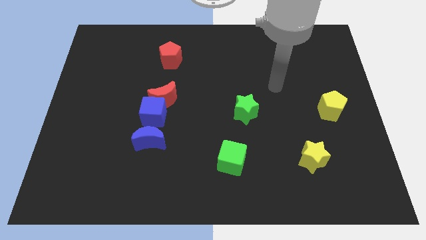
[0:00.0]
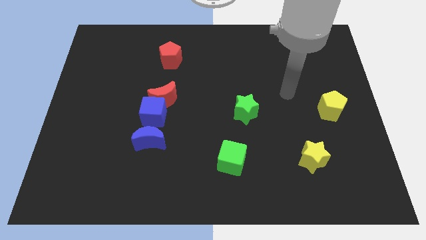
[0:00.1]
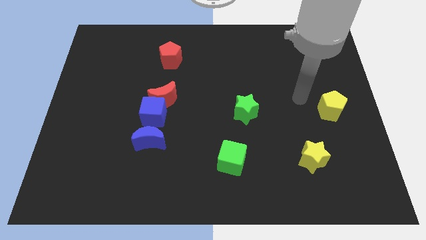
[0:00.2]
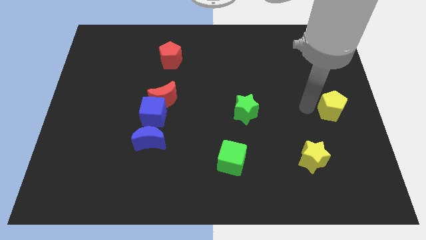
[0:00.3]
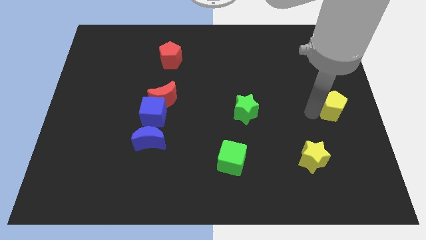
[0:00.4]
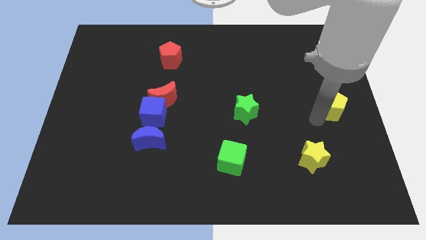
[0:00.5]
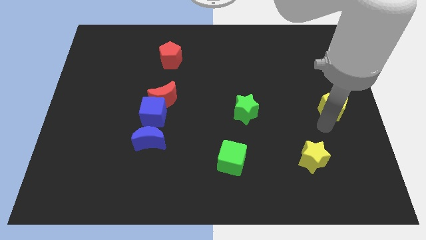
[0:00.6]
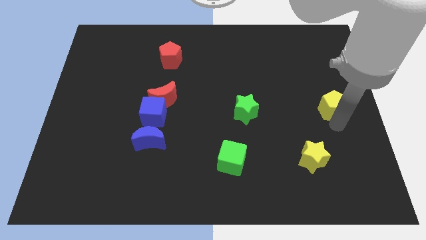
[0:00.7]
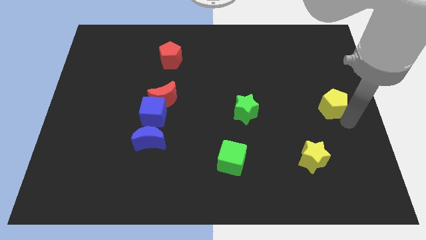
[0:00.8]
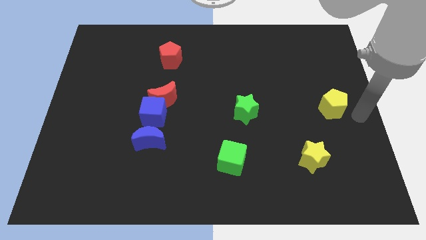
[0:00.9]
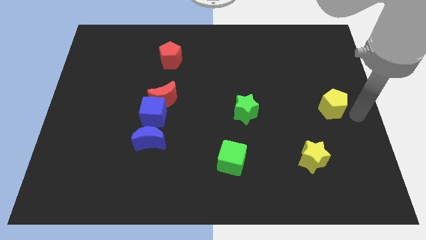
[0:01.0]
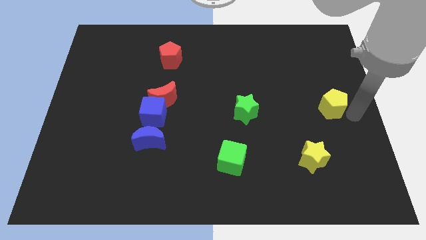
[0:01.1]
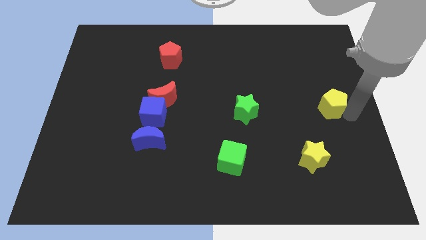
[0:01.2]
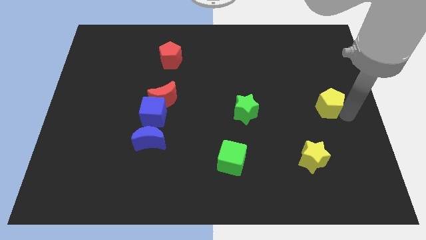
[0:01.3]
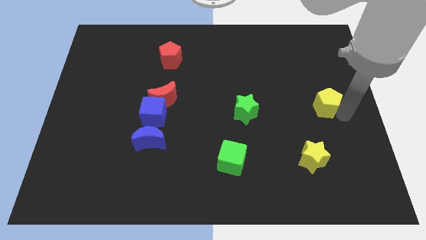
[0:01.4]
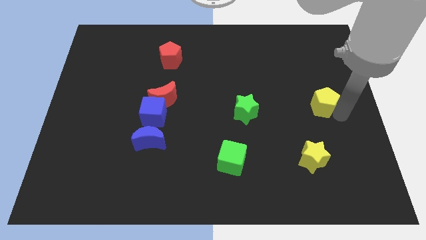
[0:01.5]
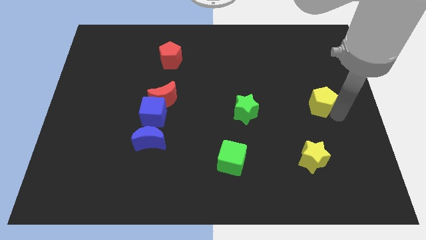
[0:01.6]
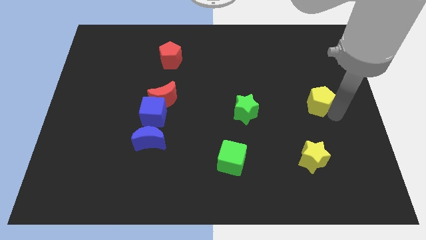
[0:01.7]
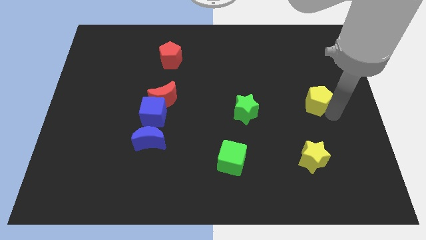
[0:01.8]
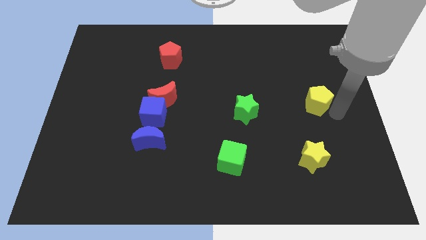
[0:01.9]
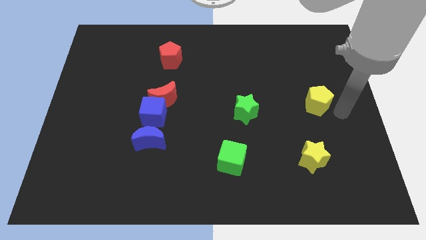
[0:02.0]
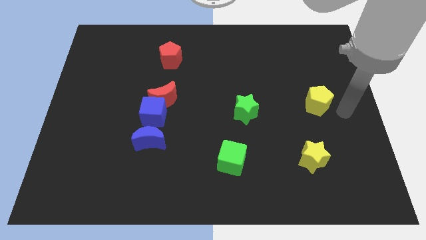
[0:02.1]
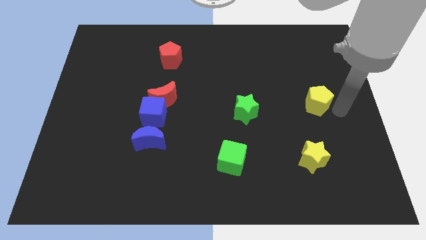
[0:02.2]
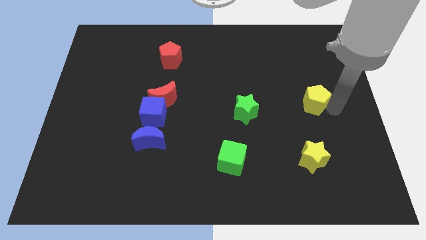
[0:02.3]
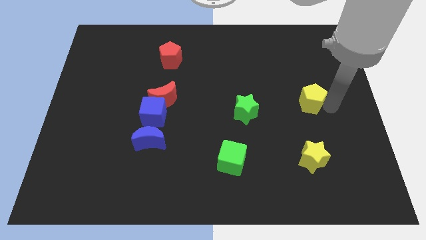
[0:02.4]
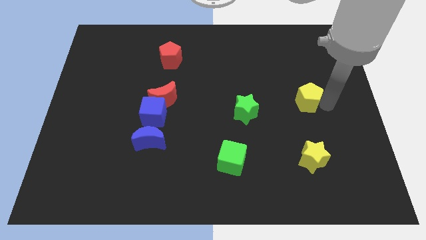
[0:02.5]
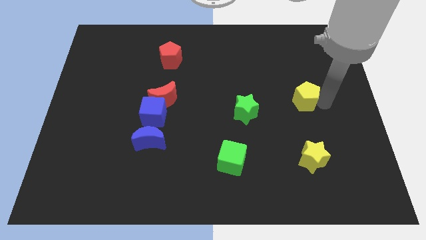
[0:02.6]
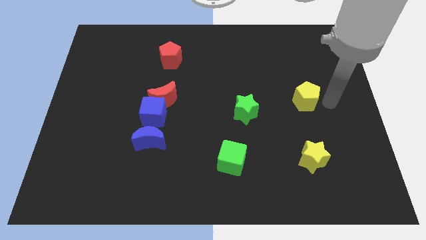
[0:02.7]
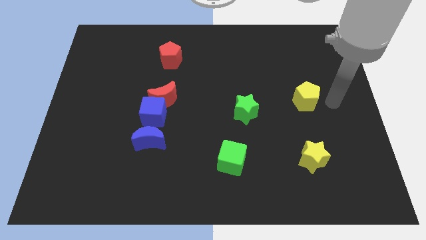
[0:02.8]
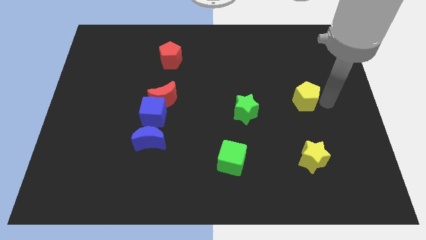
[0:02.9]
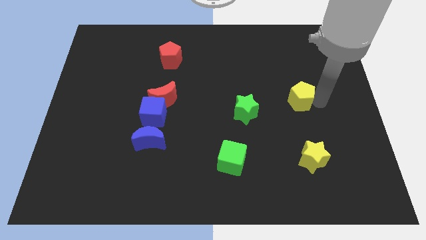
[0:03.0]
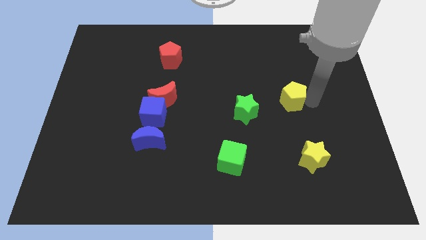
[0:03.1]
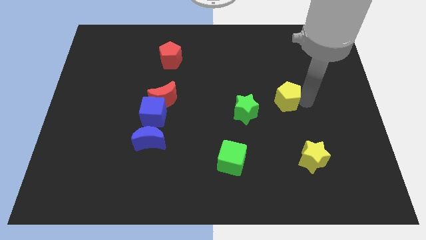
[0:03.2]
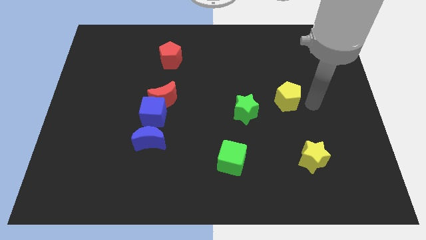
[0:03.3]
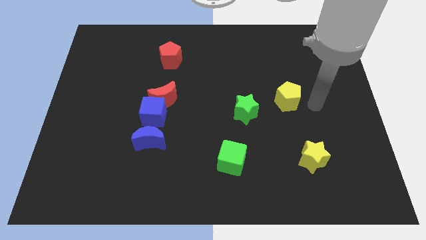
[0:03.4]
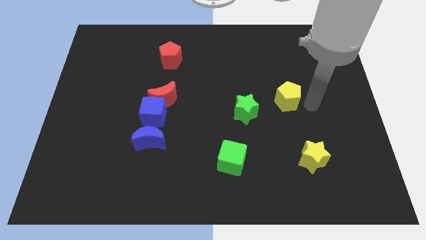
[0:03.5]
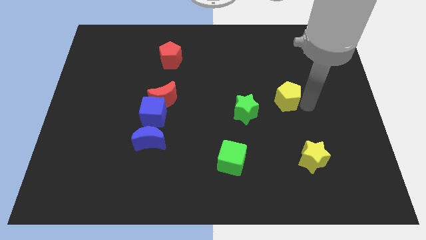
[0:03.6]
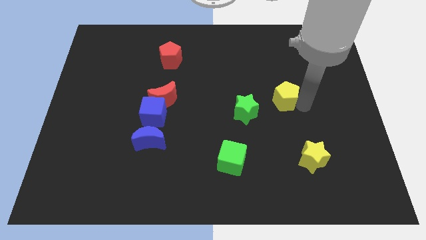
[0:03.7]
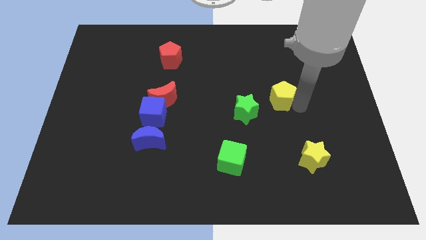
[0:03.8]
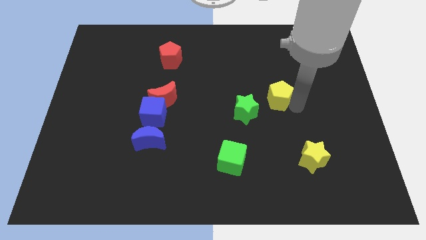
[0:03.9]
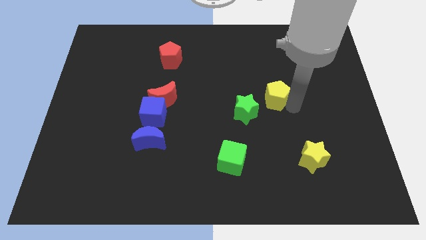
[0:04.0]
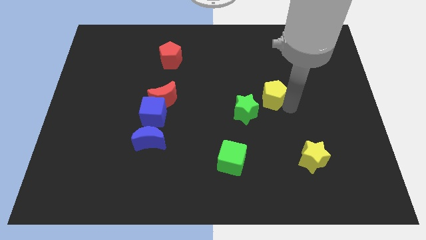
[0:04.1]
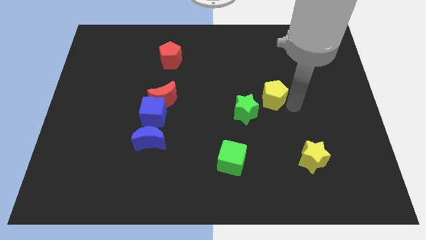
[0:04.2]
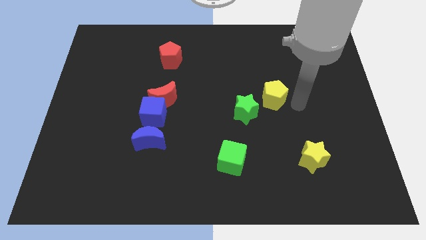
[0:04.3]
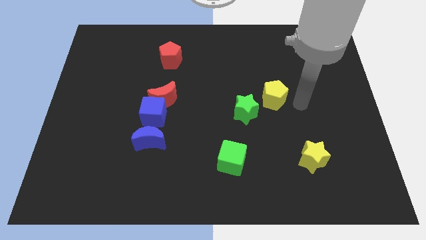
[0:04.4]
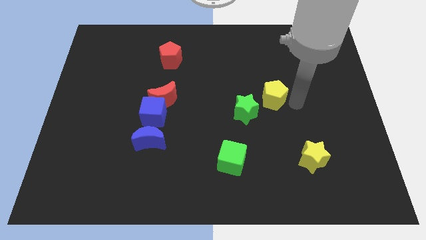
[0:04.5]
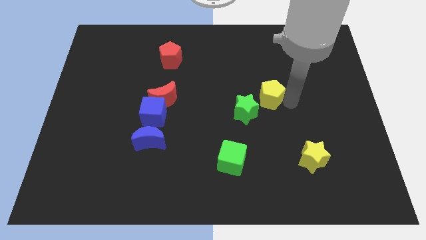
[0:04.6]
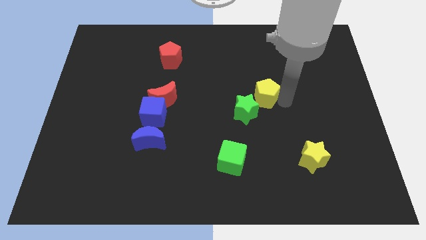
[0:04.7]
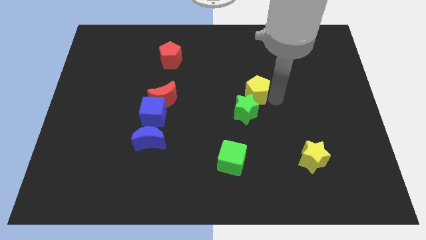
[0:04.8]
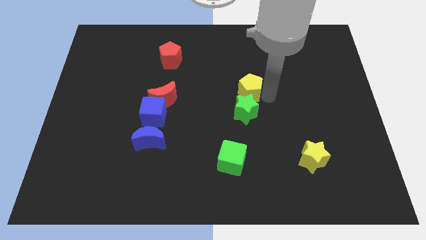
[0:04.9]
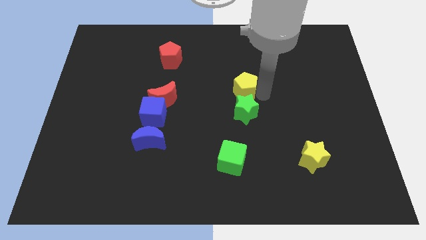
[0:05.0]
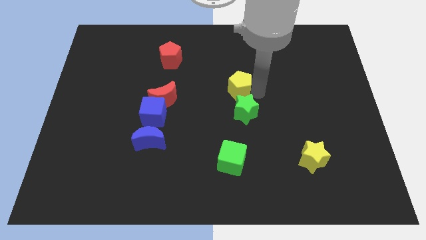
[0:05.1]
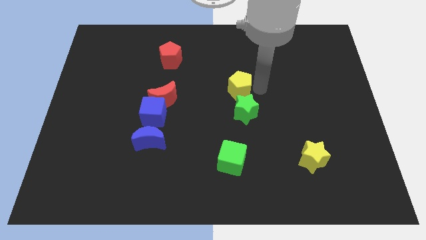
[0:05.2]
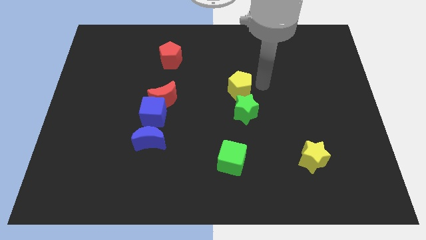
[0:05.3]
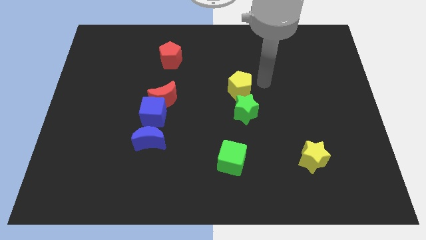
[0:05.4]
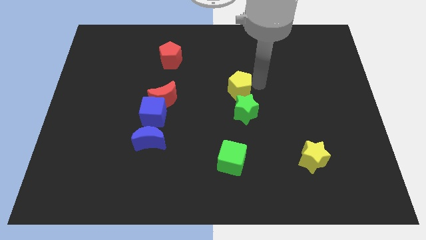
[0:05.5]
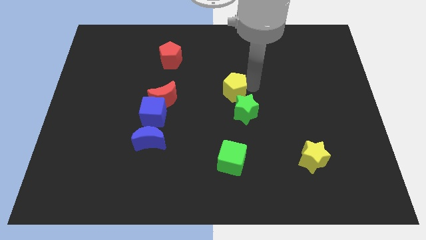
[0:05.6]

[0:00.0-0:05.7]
push the yellow pentagon left

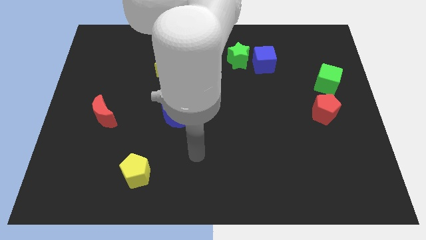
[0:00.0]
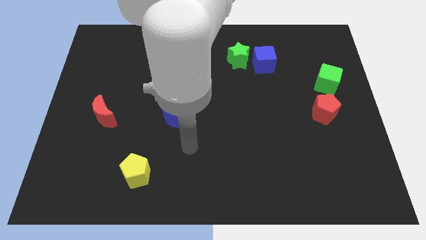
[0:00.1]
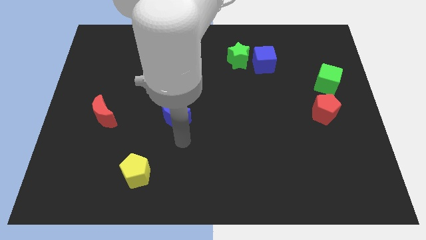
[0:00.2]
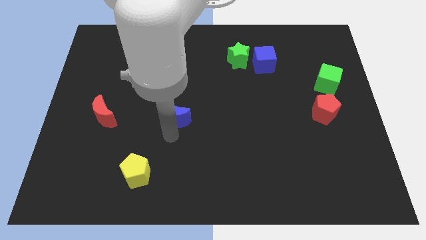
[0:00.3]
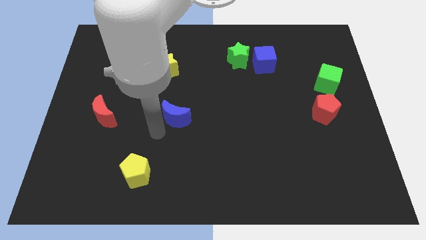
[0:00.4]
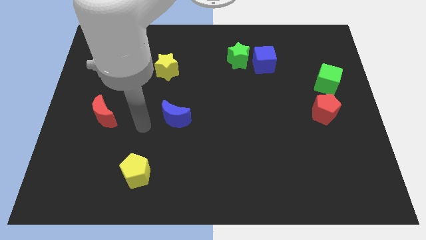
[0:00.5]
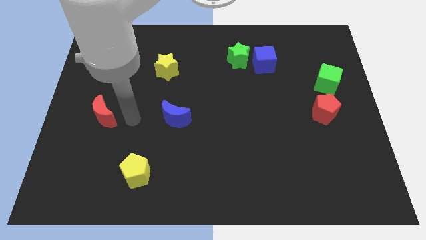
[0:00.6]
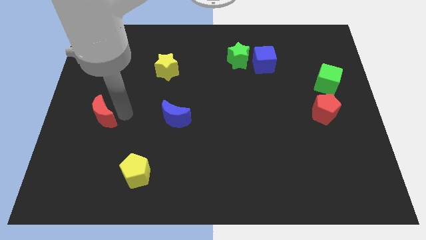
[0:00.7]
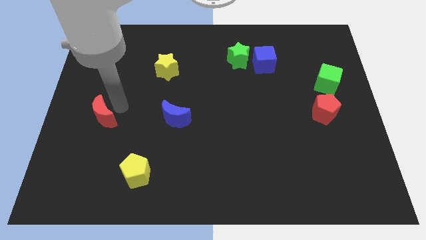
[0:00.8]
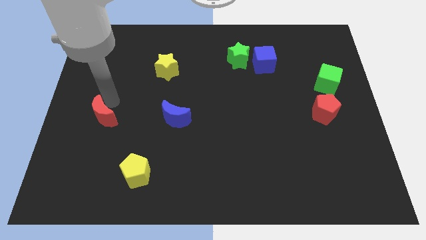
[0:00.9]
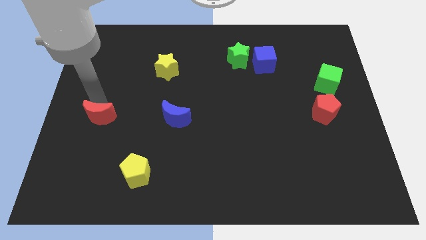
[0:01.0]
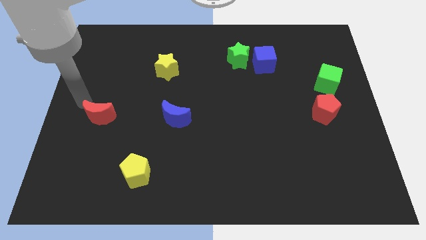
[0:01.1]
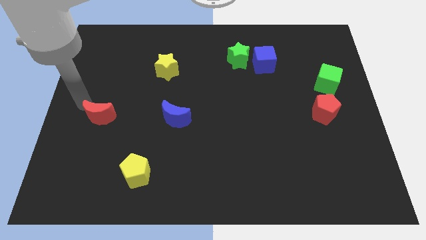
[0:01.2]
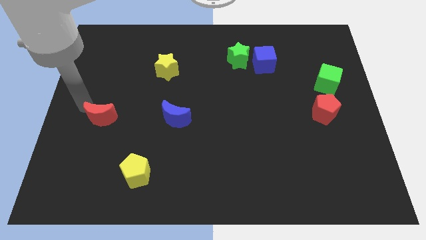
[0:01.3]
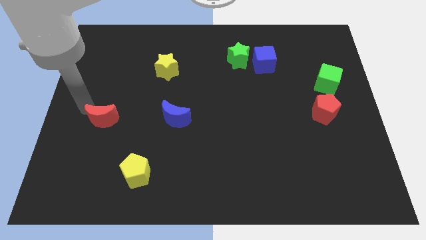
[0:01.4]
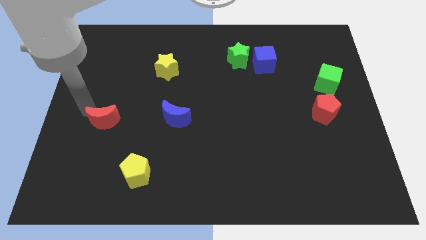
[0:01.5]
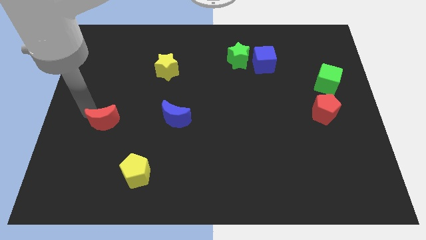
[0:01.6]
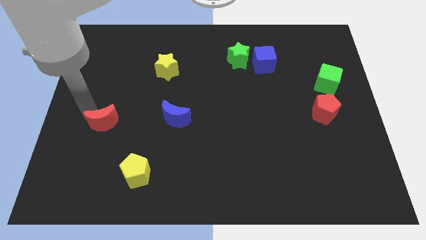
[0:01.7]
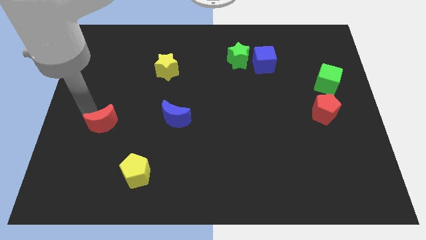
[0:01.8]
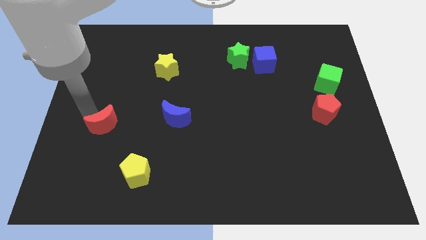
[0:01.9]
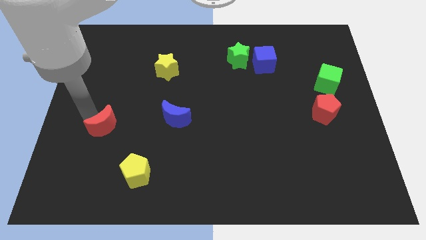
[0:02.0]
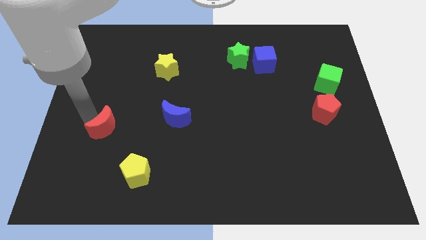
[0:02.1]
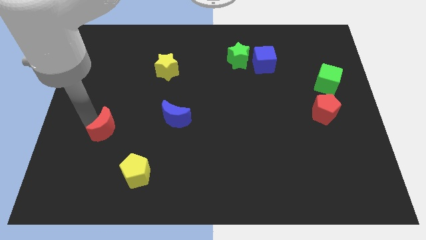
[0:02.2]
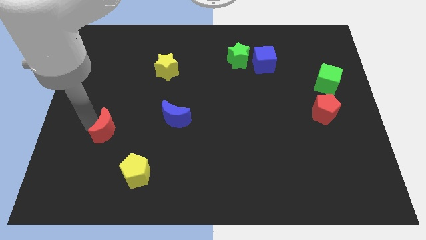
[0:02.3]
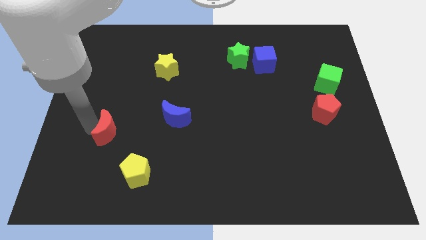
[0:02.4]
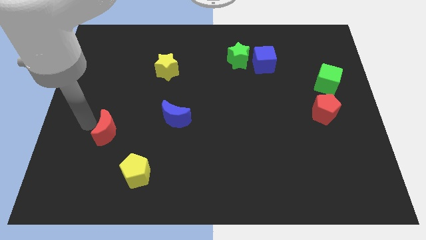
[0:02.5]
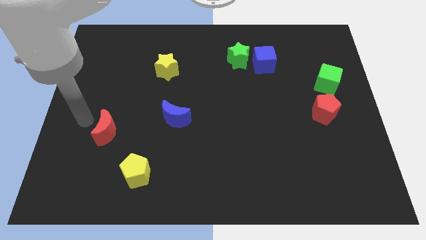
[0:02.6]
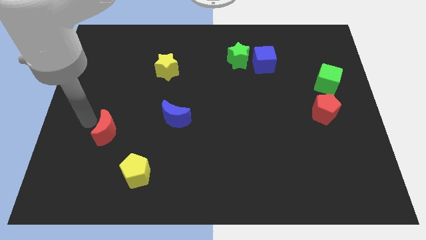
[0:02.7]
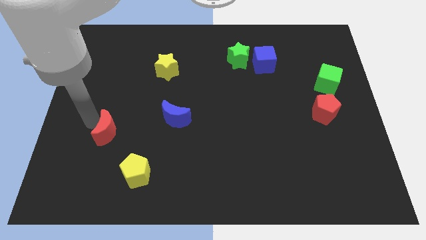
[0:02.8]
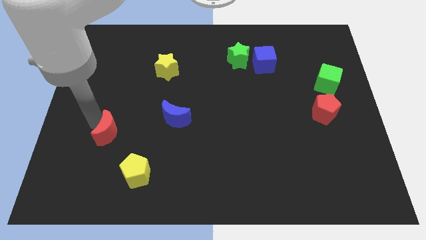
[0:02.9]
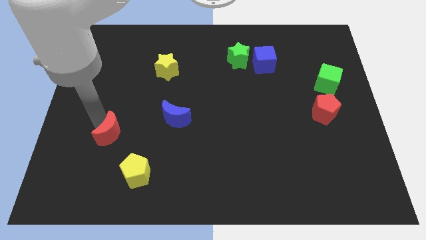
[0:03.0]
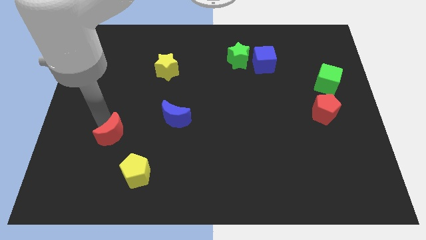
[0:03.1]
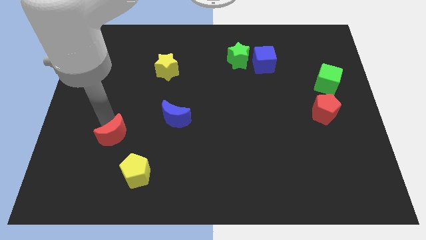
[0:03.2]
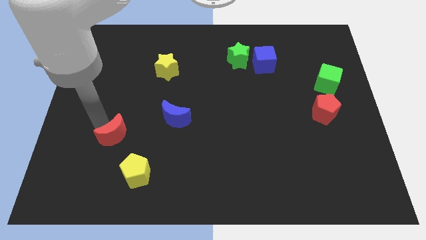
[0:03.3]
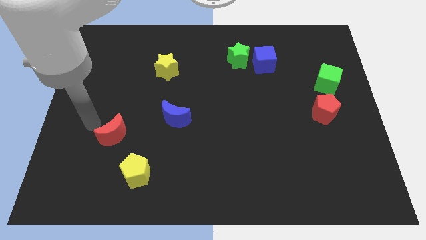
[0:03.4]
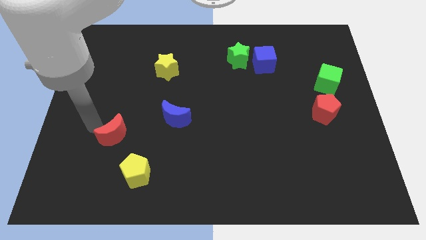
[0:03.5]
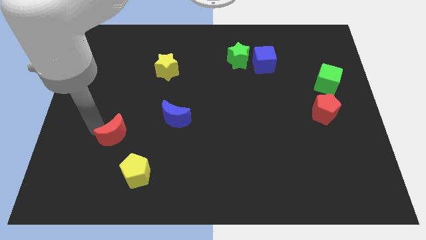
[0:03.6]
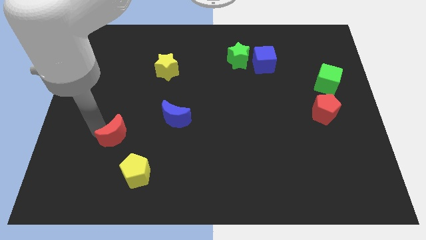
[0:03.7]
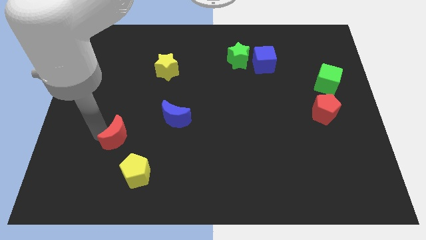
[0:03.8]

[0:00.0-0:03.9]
move the red moon downwards and to the right diagonally a little bit
